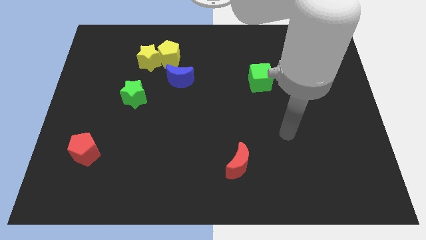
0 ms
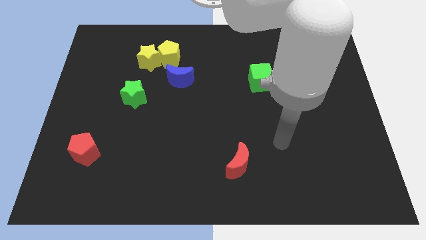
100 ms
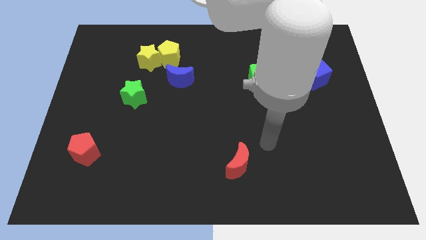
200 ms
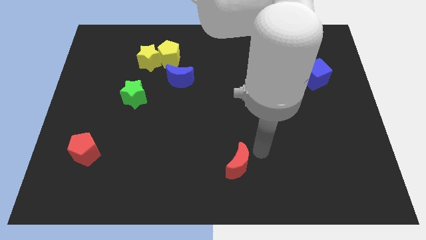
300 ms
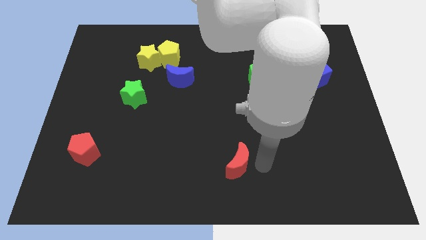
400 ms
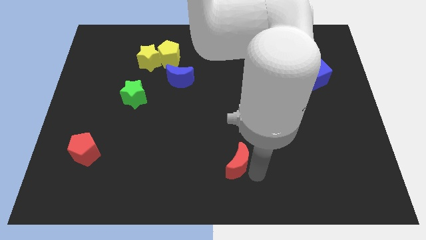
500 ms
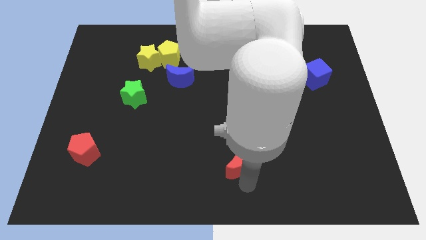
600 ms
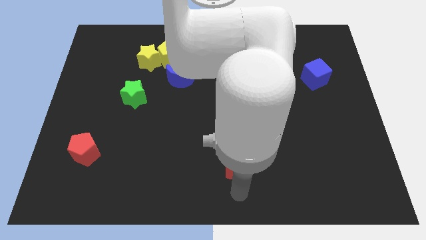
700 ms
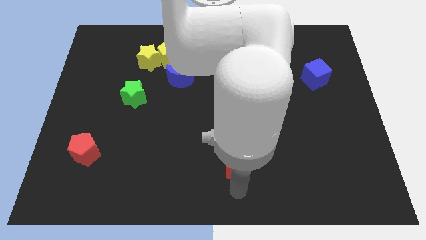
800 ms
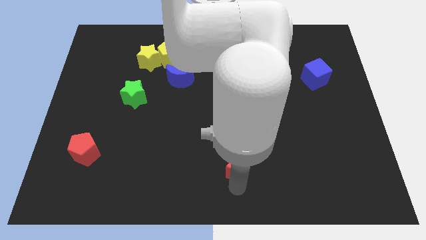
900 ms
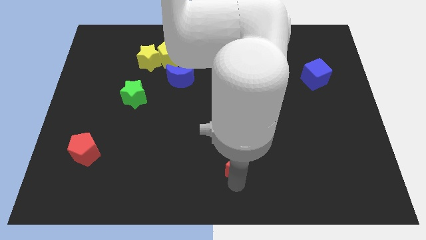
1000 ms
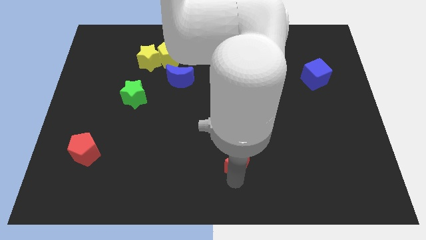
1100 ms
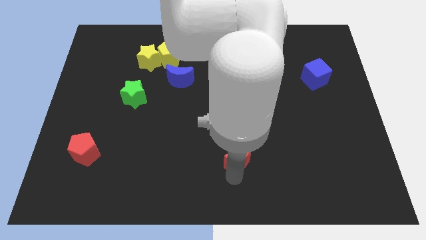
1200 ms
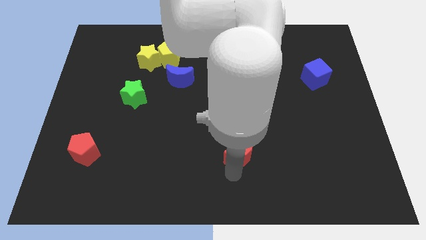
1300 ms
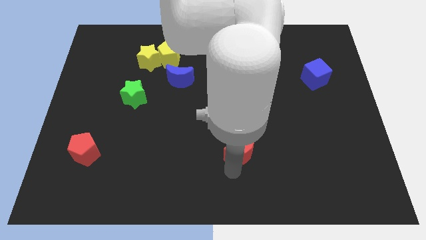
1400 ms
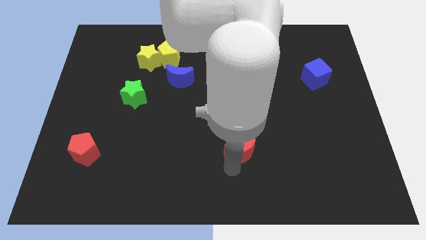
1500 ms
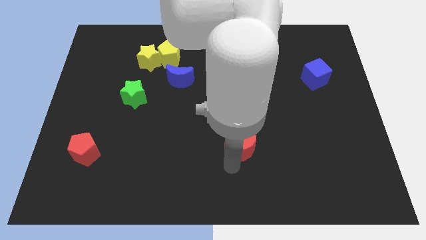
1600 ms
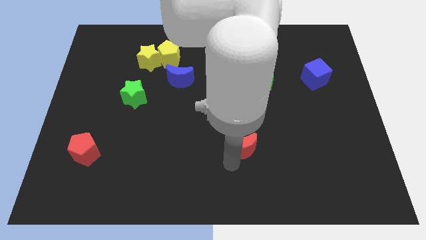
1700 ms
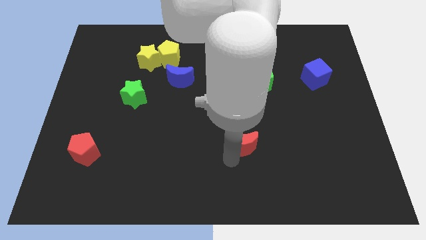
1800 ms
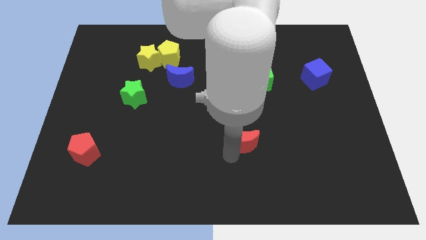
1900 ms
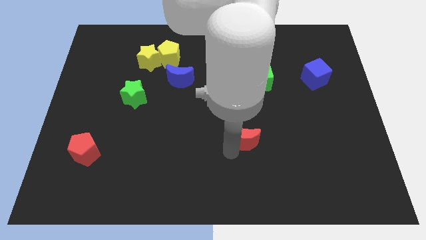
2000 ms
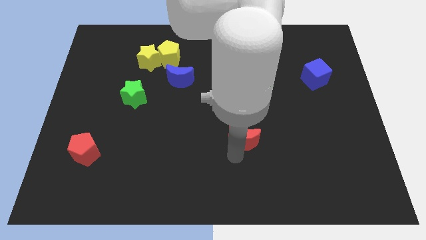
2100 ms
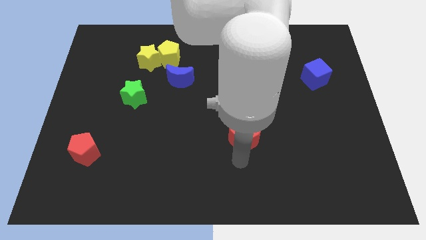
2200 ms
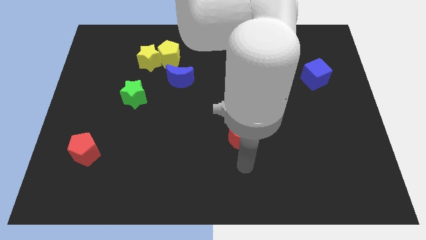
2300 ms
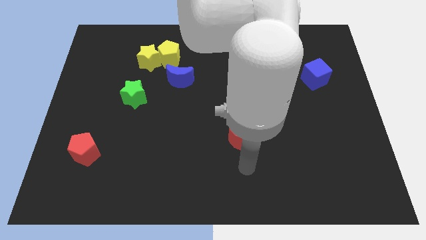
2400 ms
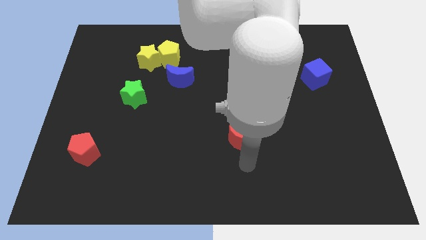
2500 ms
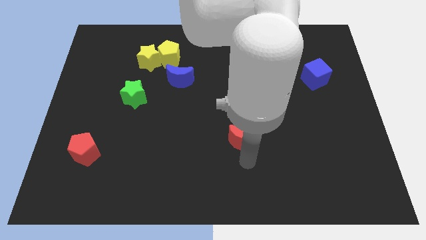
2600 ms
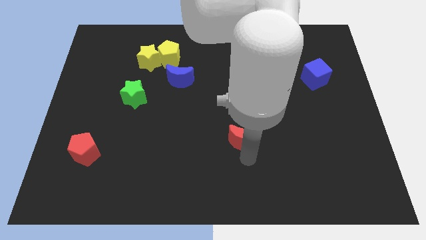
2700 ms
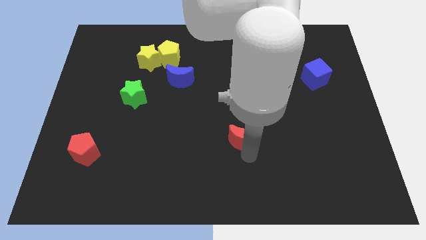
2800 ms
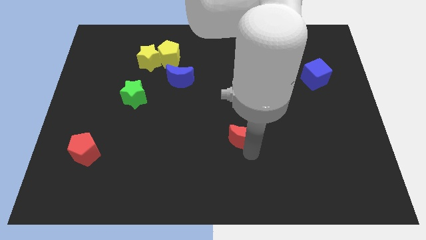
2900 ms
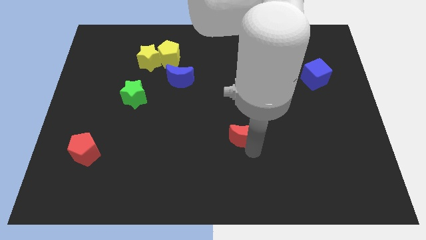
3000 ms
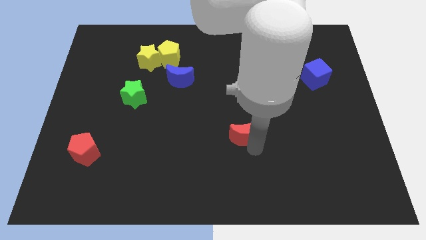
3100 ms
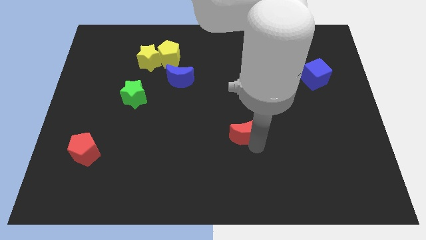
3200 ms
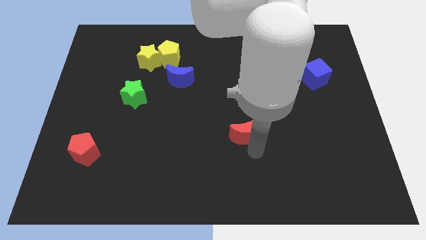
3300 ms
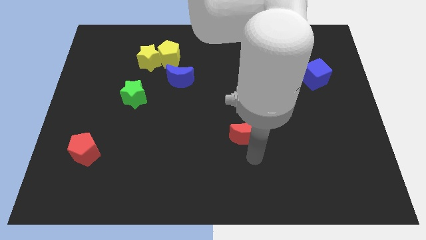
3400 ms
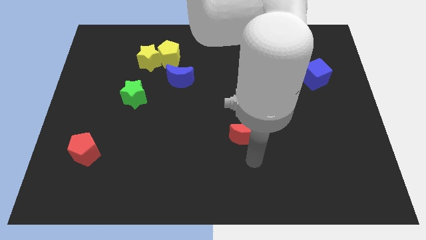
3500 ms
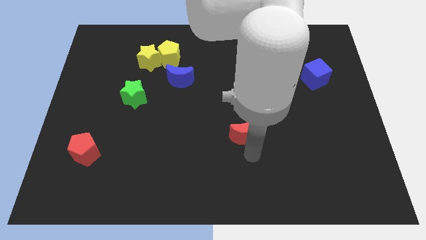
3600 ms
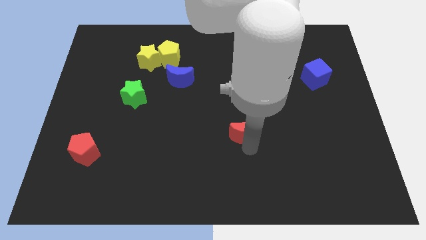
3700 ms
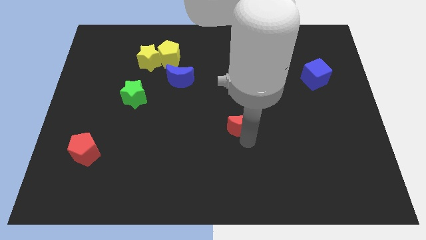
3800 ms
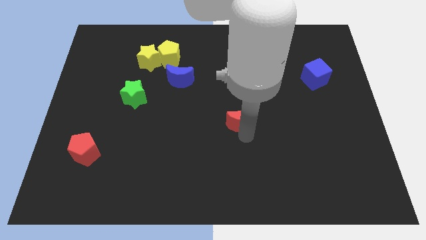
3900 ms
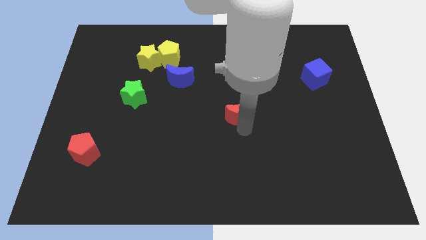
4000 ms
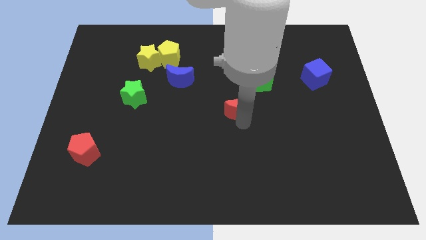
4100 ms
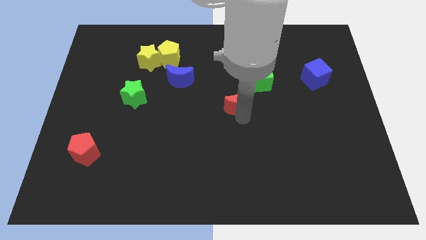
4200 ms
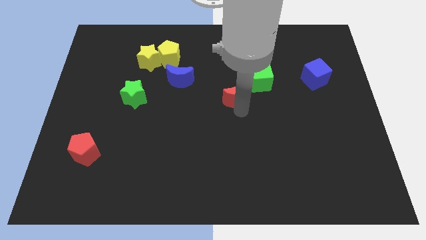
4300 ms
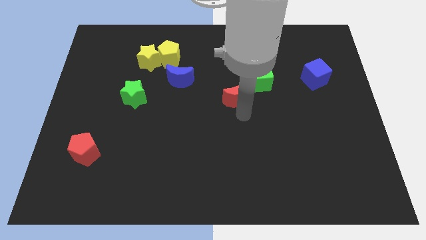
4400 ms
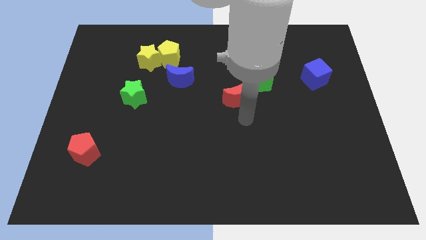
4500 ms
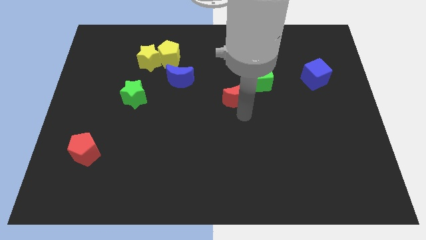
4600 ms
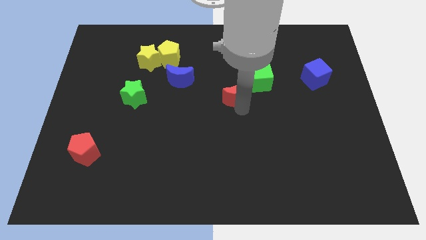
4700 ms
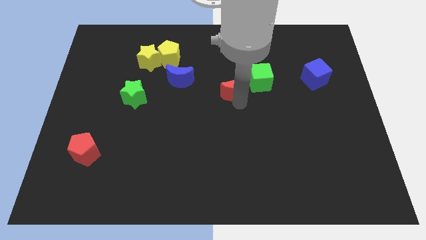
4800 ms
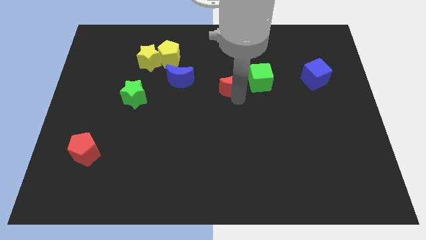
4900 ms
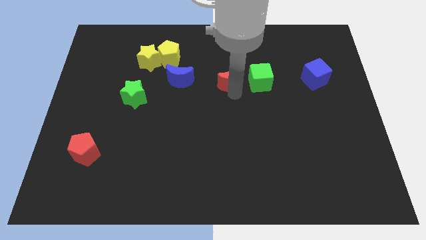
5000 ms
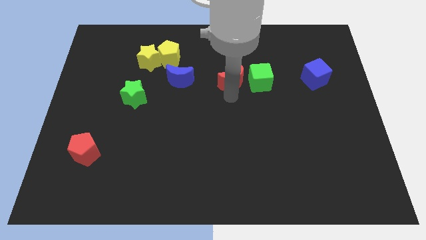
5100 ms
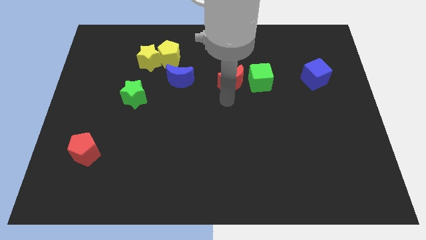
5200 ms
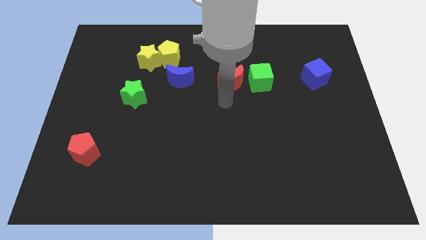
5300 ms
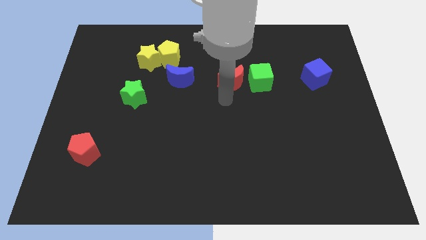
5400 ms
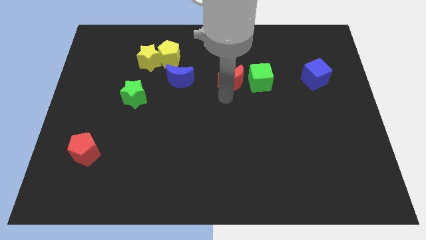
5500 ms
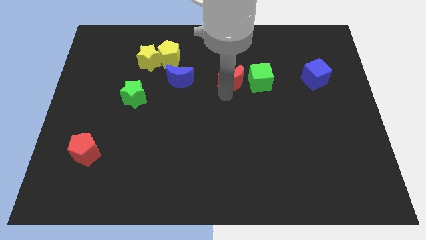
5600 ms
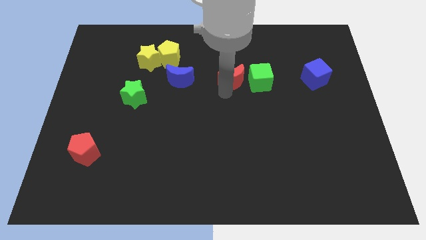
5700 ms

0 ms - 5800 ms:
slide the red moon to the top left side of the green cube

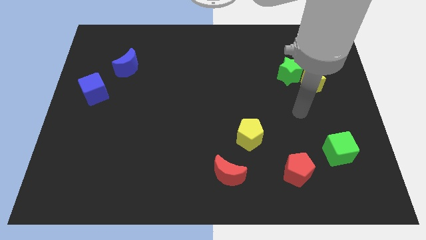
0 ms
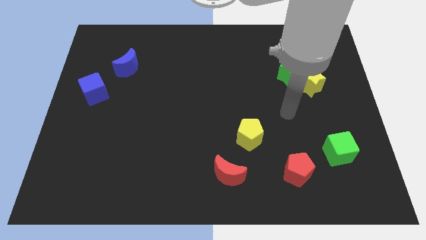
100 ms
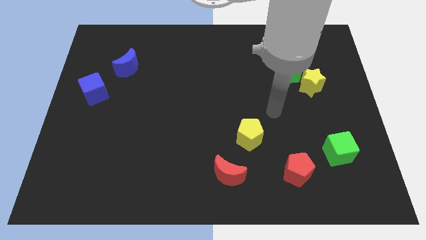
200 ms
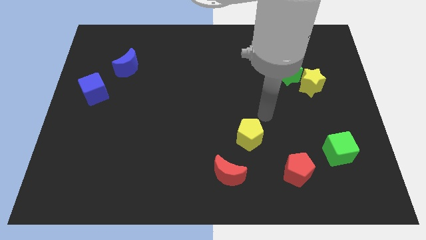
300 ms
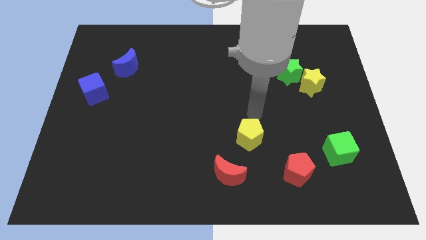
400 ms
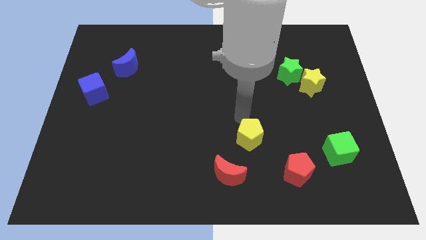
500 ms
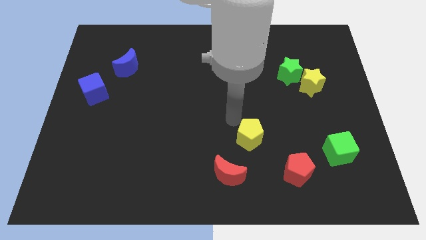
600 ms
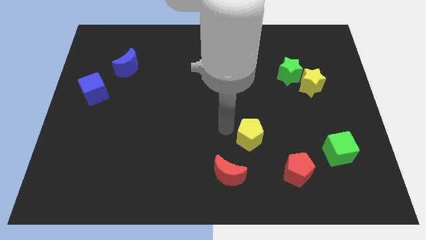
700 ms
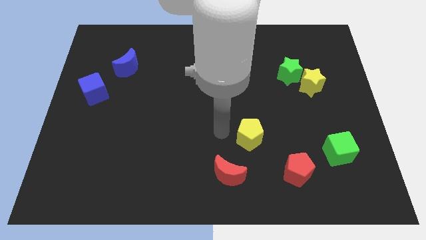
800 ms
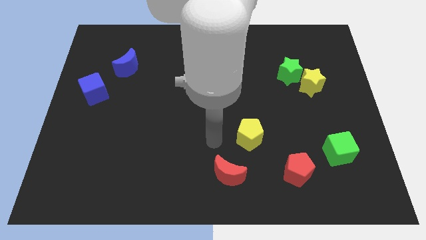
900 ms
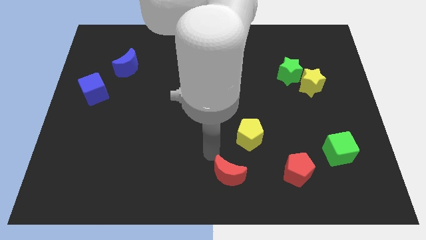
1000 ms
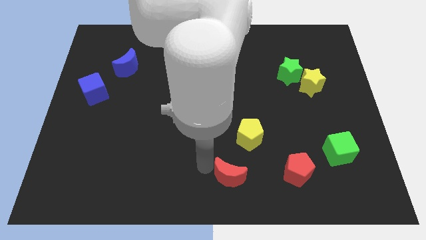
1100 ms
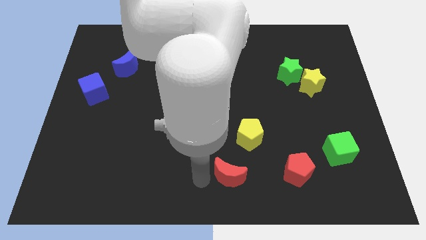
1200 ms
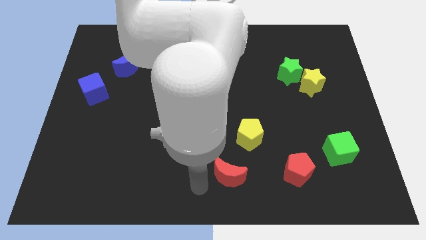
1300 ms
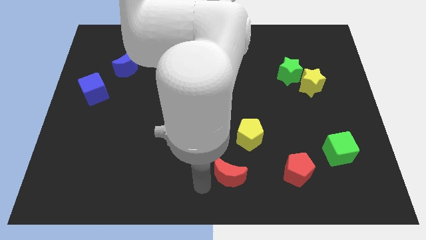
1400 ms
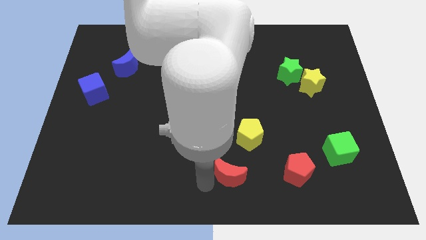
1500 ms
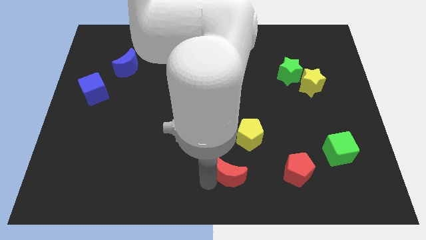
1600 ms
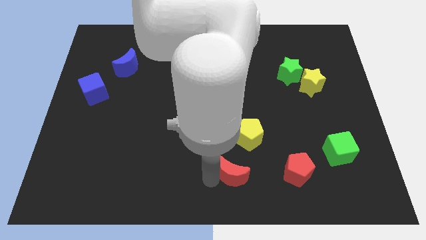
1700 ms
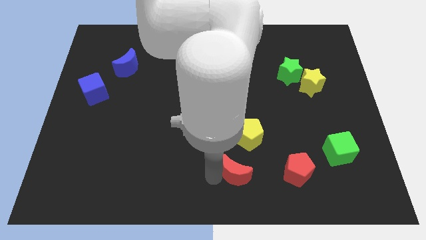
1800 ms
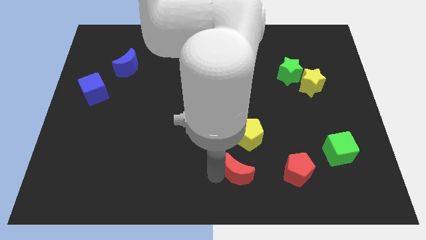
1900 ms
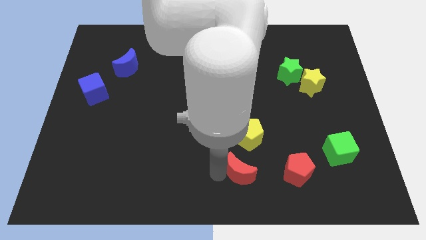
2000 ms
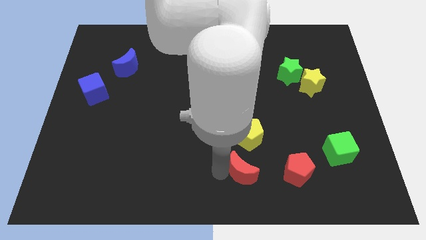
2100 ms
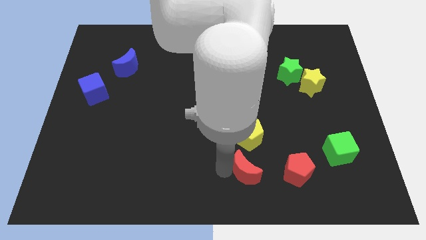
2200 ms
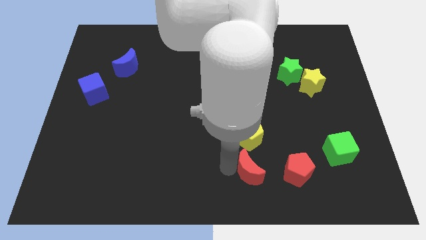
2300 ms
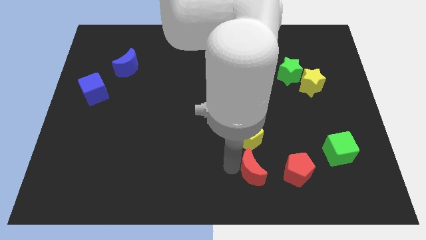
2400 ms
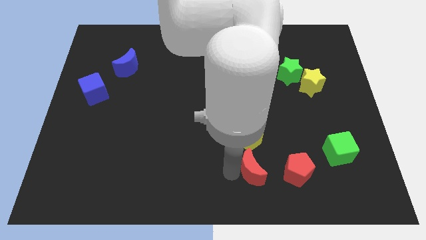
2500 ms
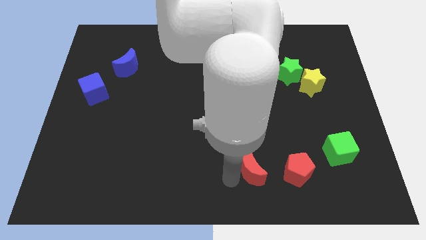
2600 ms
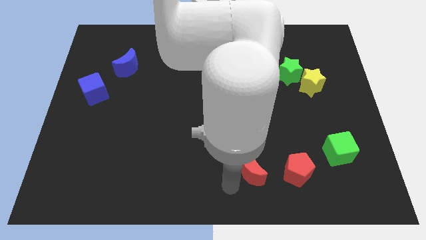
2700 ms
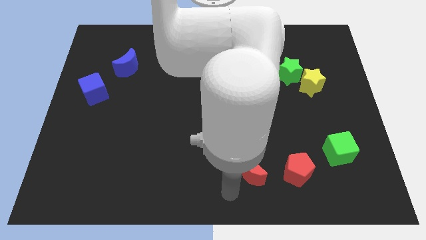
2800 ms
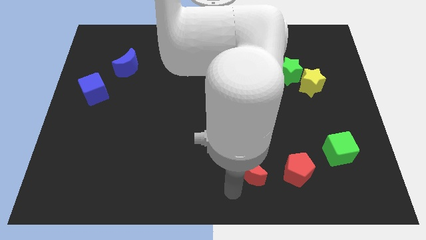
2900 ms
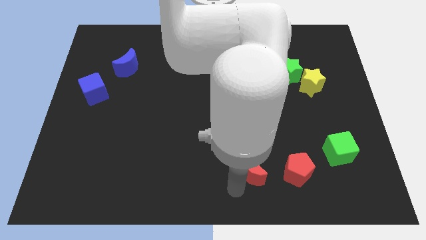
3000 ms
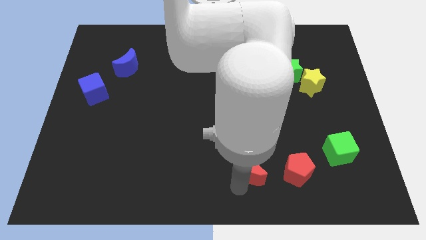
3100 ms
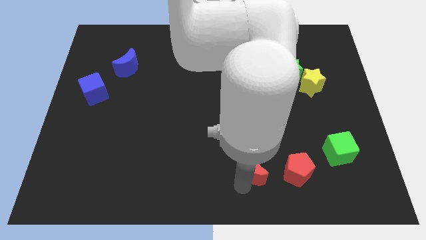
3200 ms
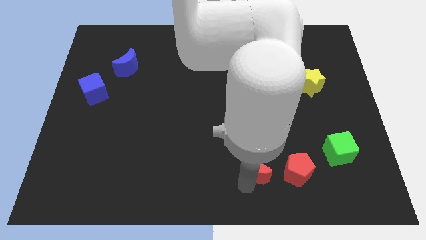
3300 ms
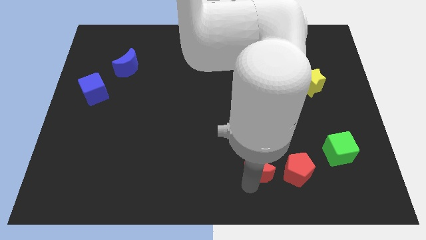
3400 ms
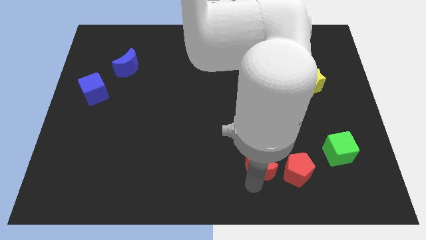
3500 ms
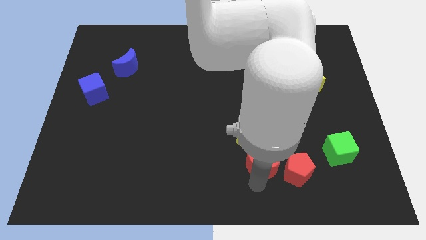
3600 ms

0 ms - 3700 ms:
push the red moon diagonally up and to the left of the red pentagon
